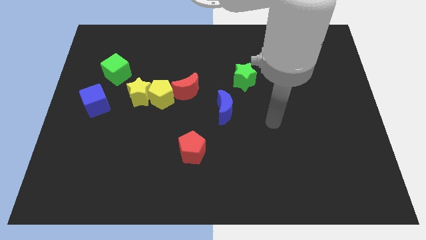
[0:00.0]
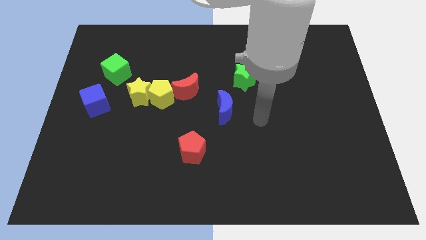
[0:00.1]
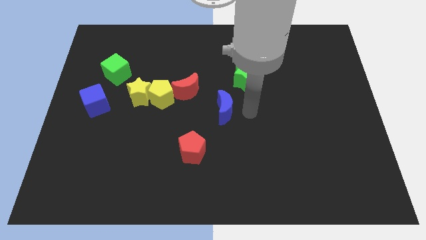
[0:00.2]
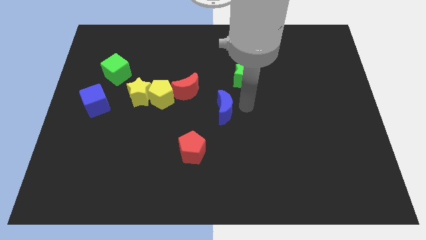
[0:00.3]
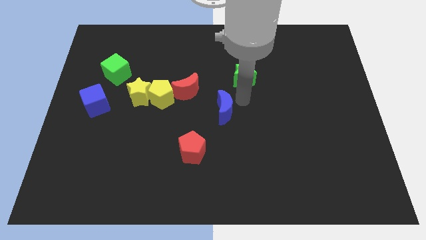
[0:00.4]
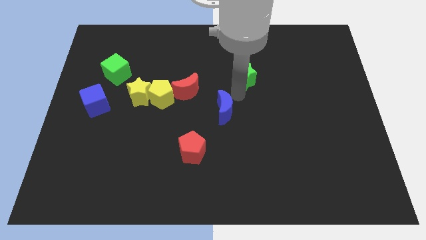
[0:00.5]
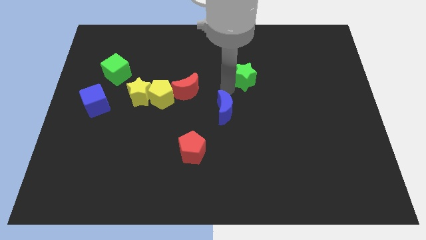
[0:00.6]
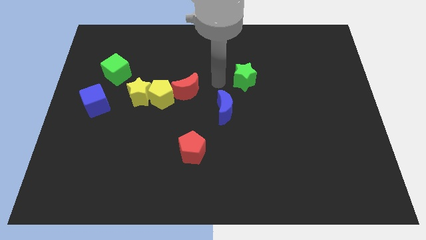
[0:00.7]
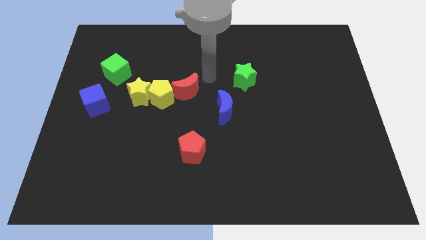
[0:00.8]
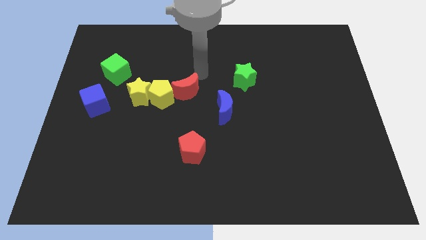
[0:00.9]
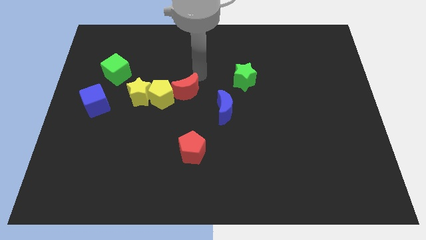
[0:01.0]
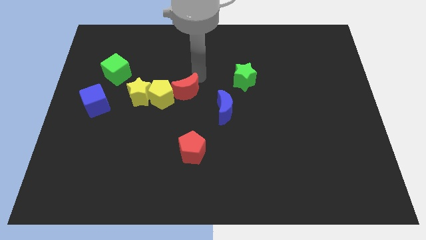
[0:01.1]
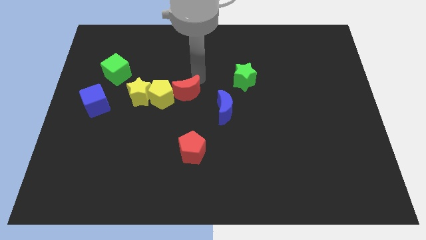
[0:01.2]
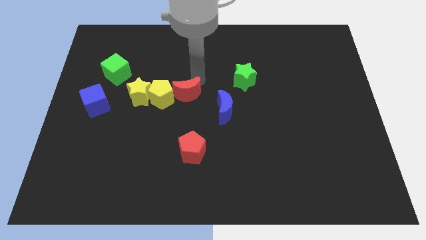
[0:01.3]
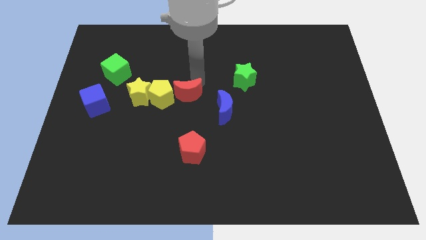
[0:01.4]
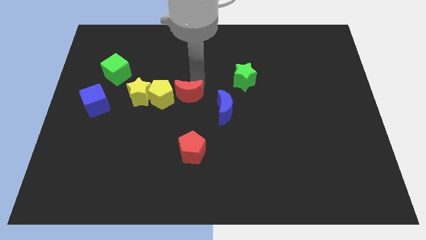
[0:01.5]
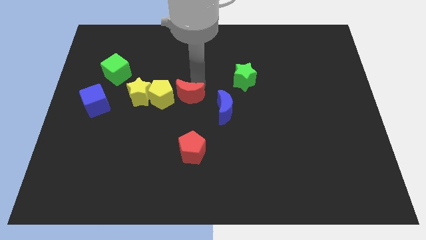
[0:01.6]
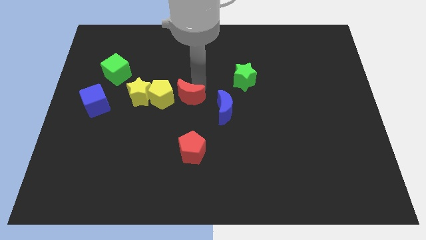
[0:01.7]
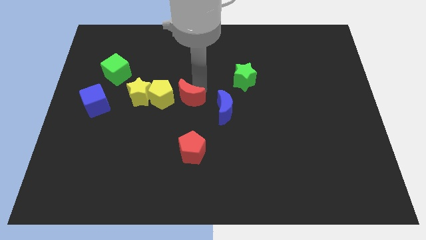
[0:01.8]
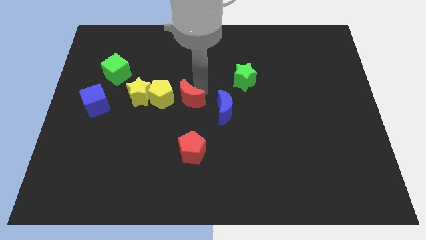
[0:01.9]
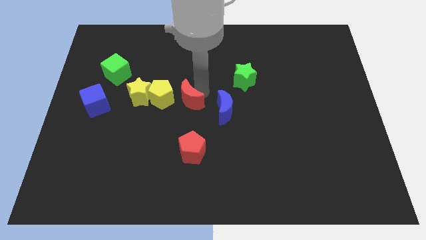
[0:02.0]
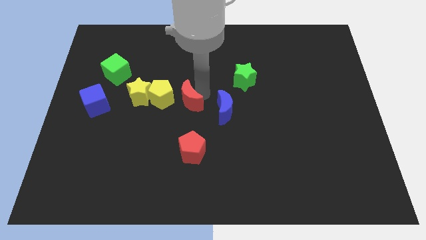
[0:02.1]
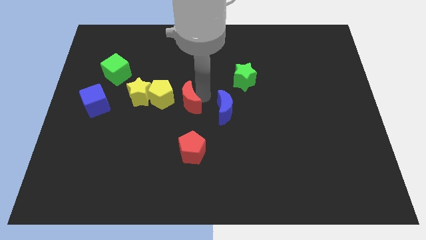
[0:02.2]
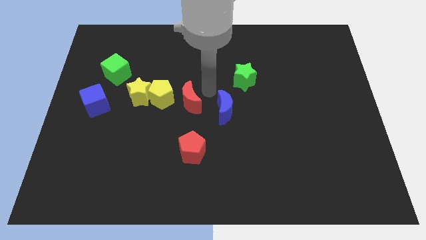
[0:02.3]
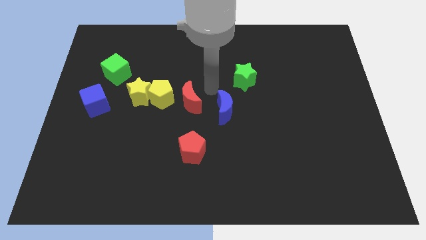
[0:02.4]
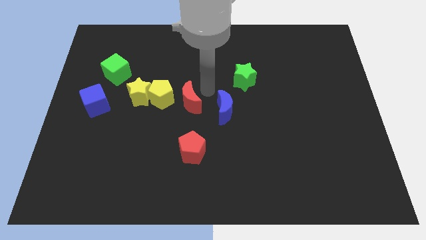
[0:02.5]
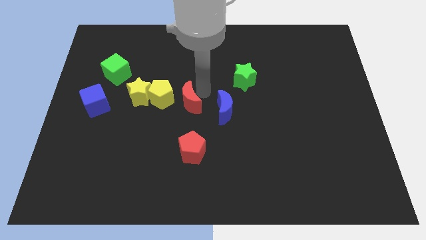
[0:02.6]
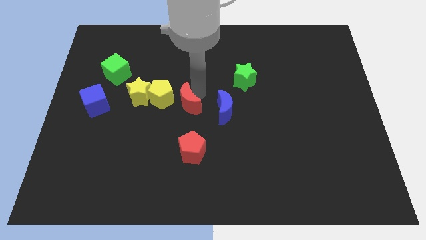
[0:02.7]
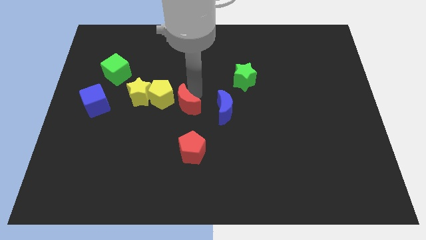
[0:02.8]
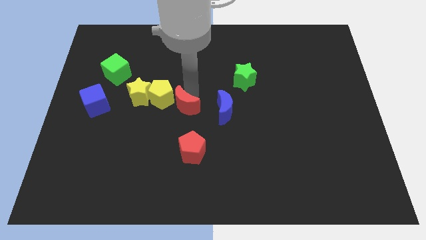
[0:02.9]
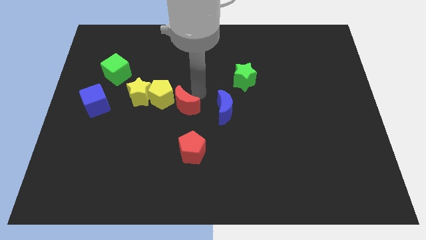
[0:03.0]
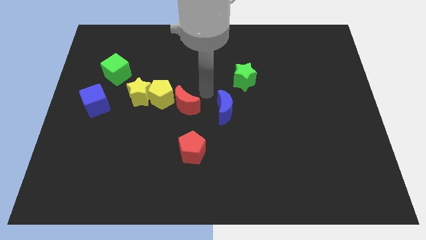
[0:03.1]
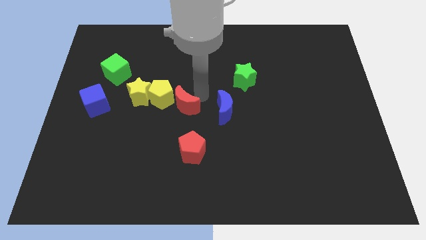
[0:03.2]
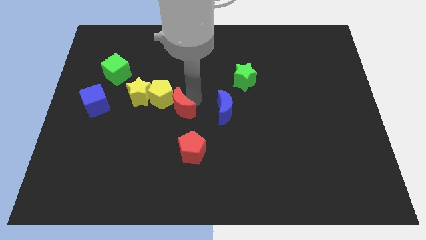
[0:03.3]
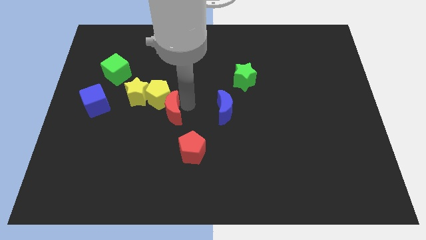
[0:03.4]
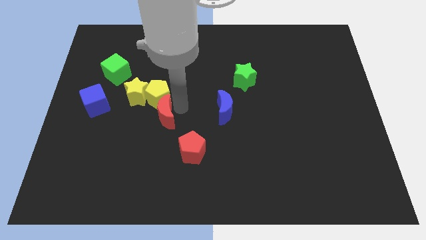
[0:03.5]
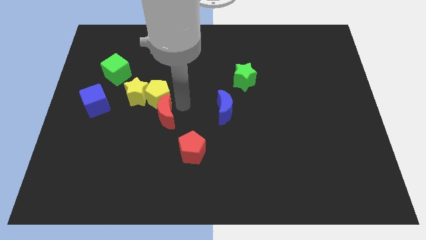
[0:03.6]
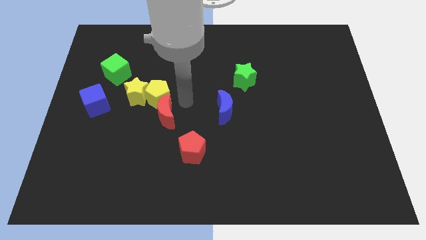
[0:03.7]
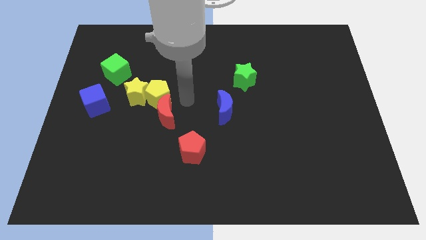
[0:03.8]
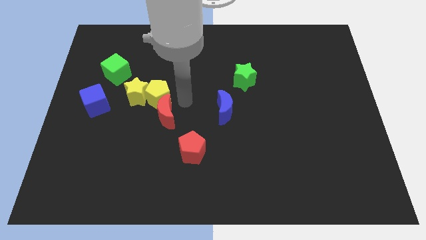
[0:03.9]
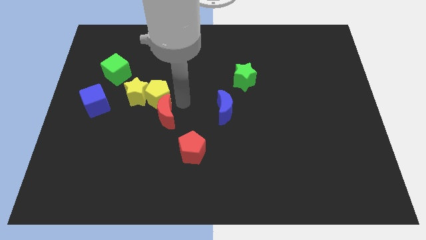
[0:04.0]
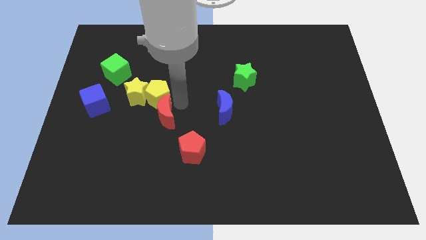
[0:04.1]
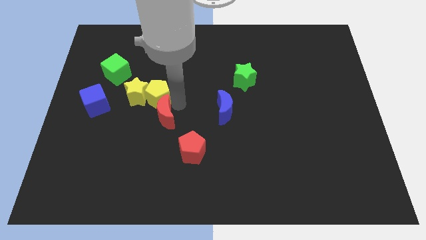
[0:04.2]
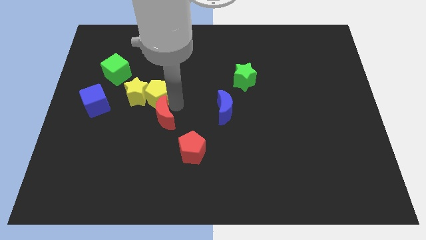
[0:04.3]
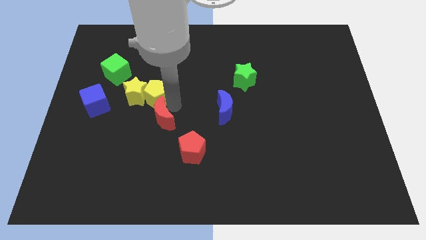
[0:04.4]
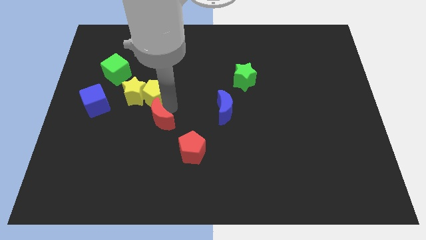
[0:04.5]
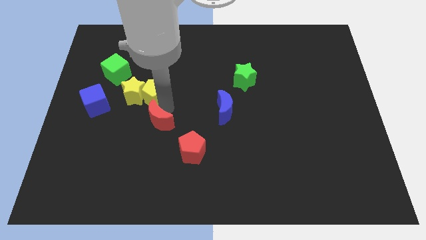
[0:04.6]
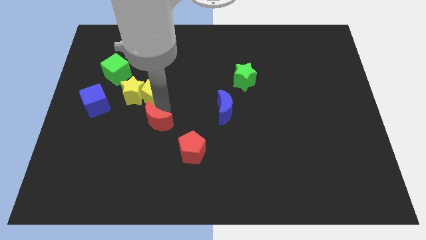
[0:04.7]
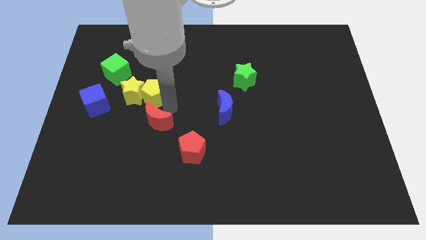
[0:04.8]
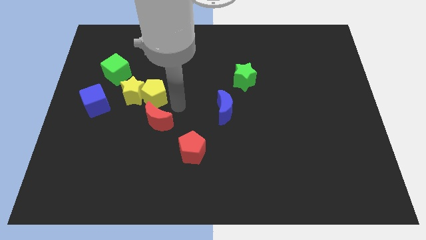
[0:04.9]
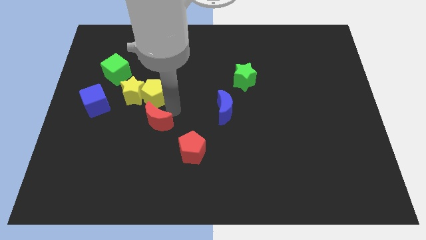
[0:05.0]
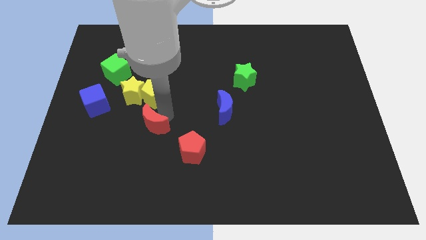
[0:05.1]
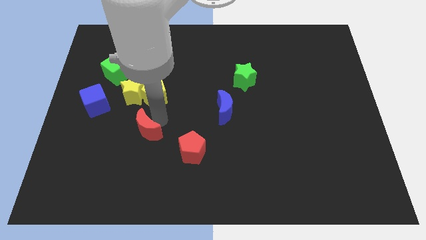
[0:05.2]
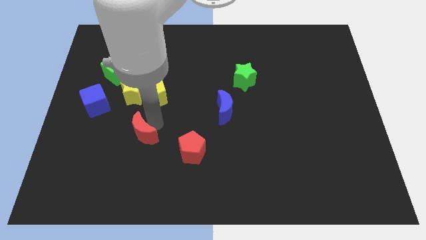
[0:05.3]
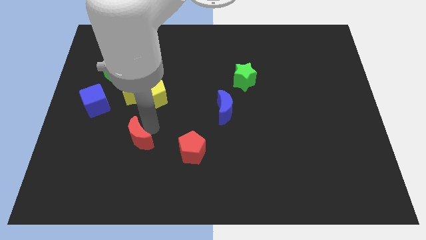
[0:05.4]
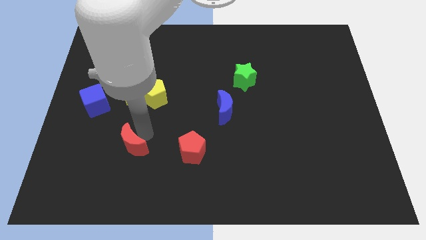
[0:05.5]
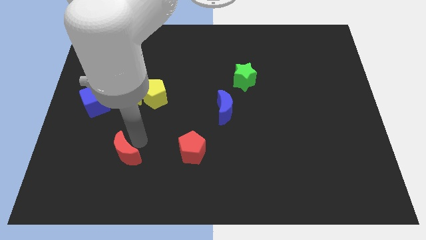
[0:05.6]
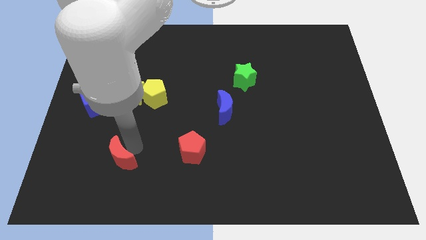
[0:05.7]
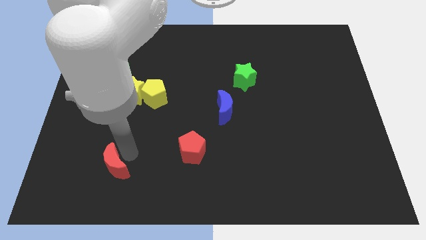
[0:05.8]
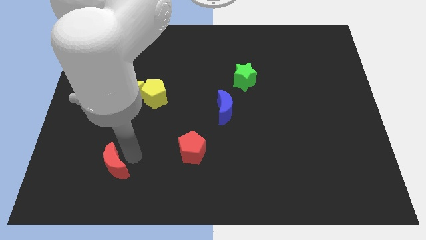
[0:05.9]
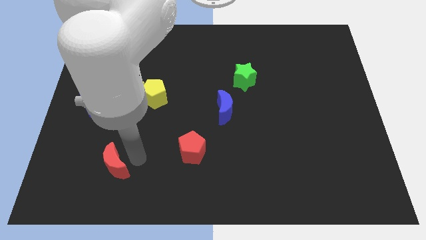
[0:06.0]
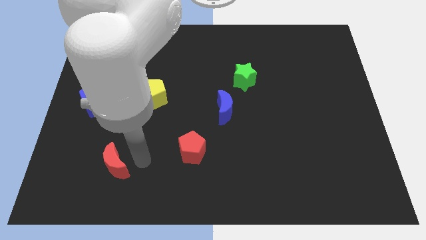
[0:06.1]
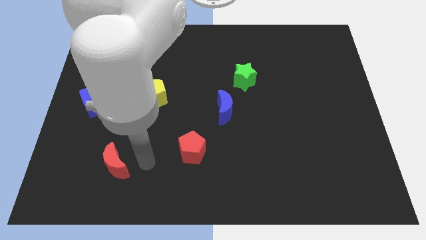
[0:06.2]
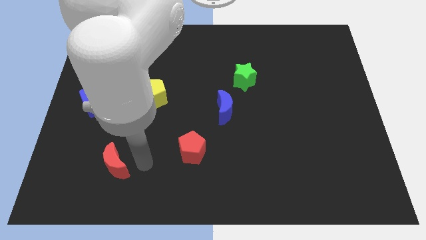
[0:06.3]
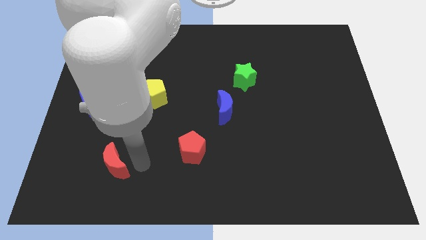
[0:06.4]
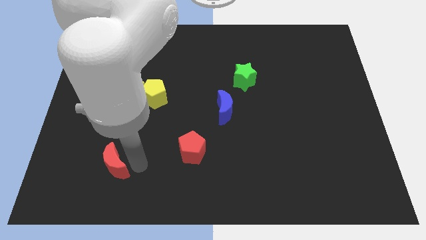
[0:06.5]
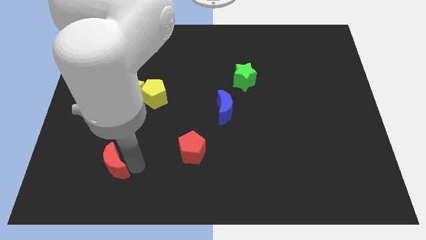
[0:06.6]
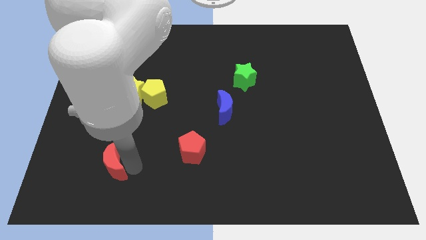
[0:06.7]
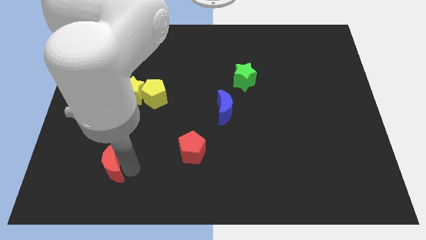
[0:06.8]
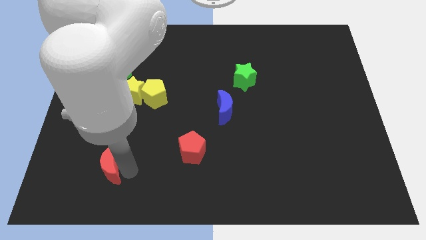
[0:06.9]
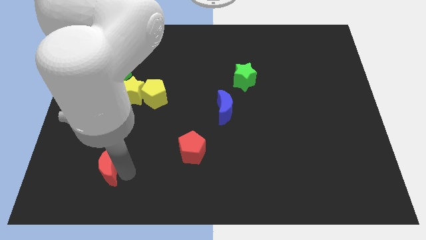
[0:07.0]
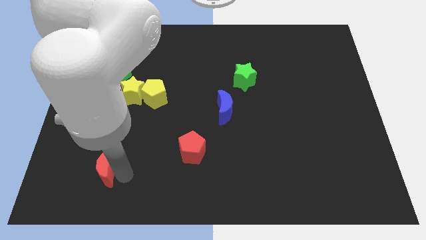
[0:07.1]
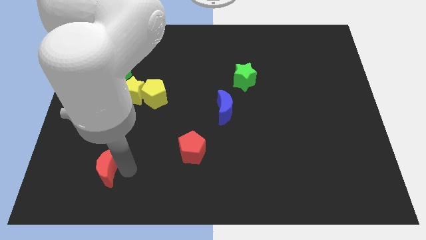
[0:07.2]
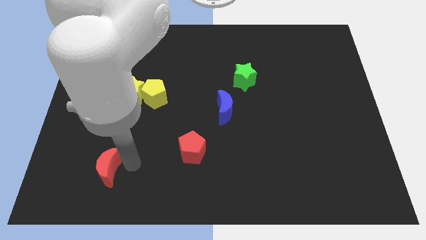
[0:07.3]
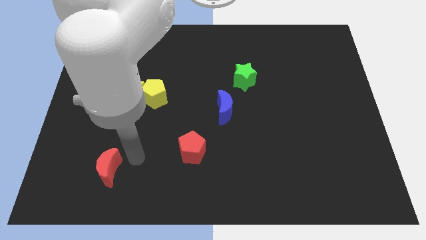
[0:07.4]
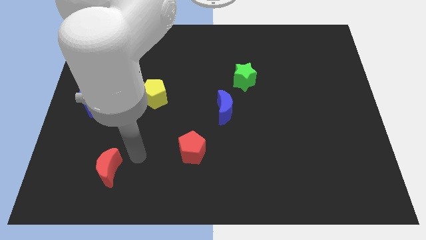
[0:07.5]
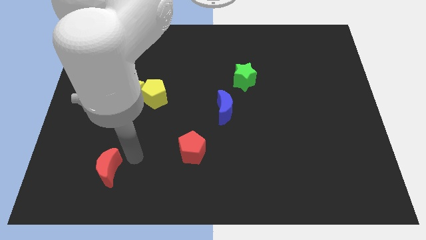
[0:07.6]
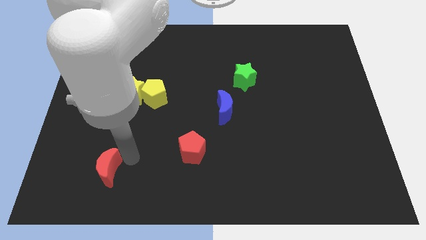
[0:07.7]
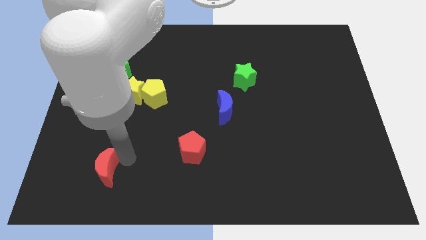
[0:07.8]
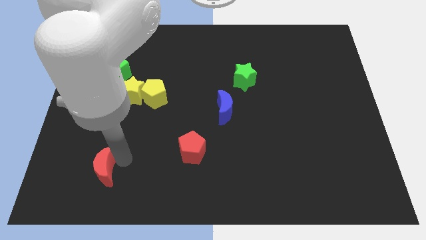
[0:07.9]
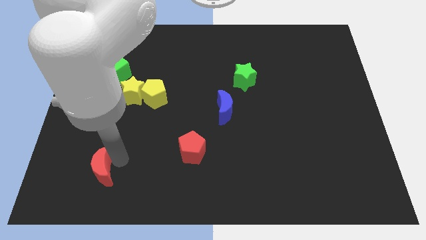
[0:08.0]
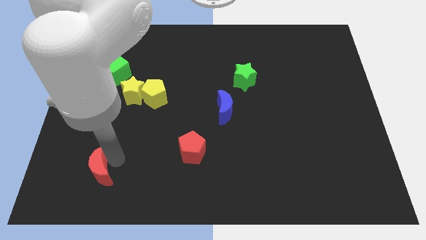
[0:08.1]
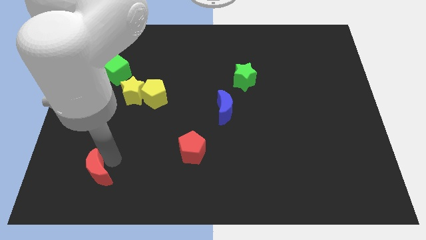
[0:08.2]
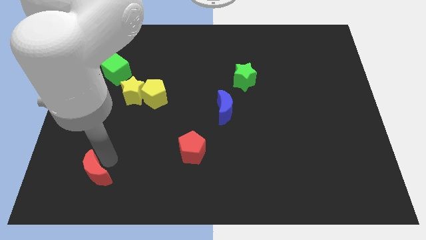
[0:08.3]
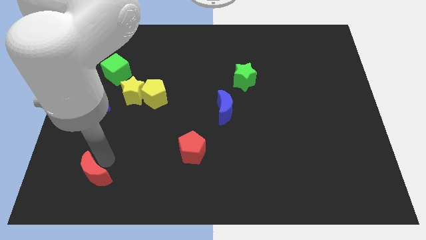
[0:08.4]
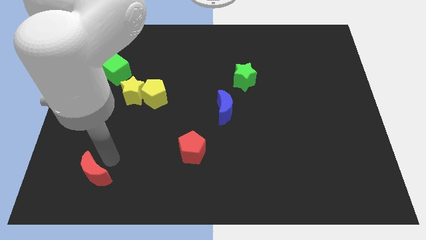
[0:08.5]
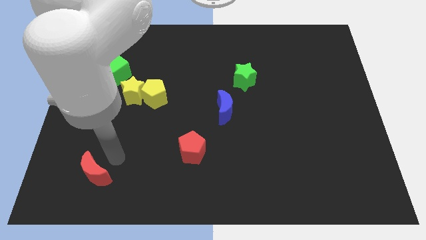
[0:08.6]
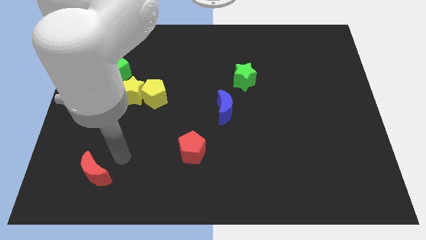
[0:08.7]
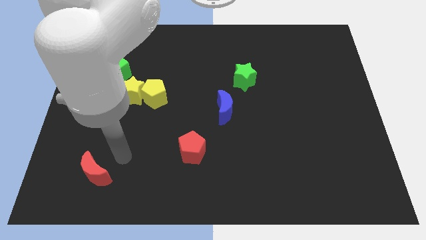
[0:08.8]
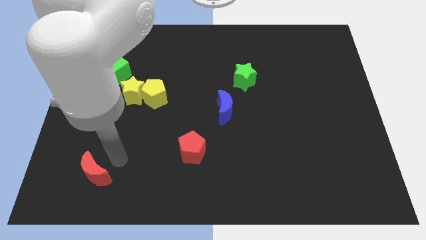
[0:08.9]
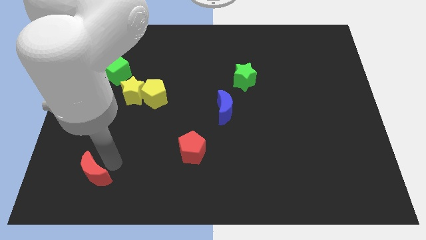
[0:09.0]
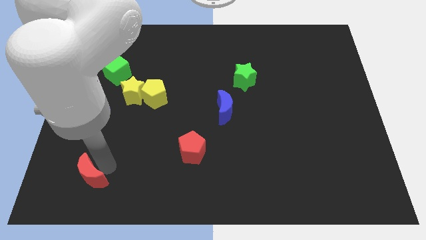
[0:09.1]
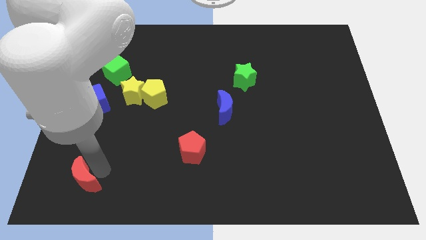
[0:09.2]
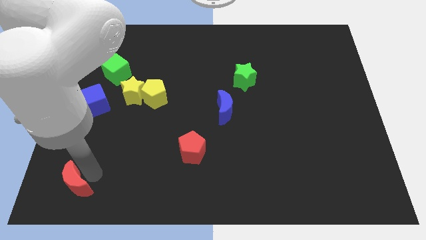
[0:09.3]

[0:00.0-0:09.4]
push the red moon to the bottom left corner
